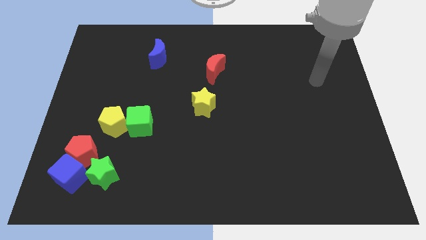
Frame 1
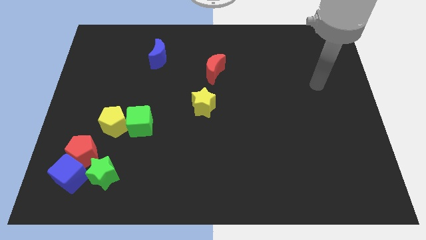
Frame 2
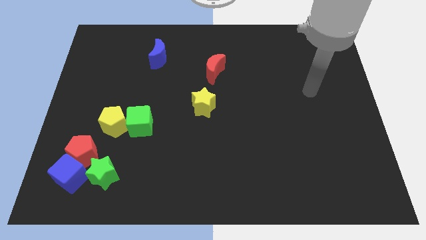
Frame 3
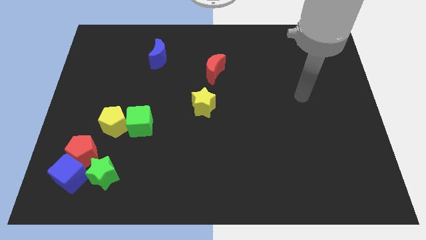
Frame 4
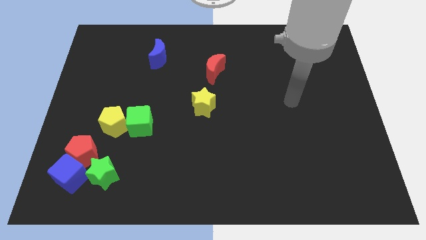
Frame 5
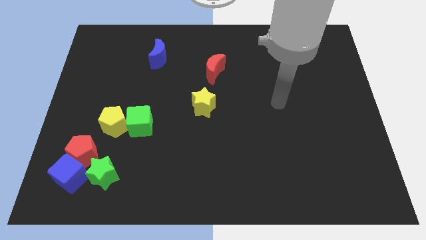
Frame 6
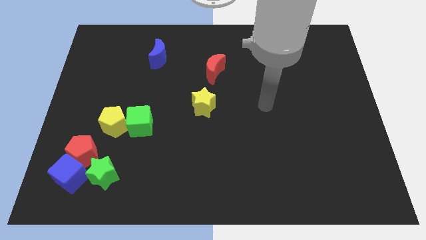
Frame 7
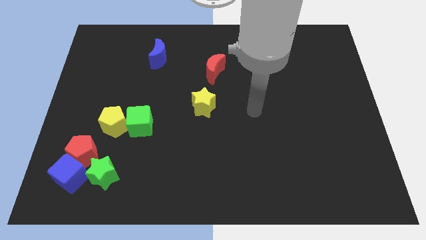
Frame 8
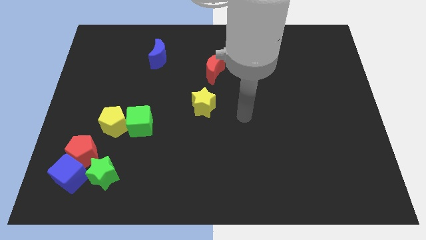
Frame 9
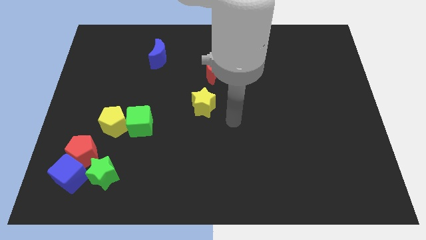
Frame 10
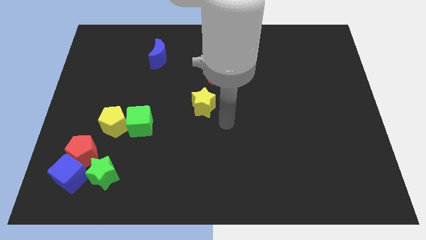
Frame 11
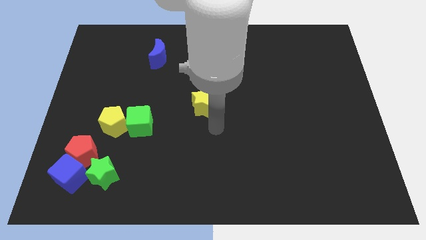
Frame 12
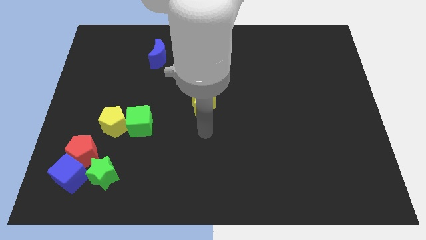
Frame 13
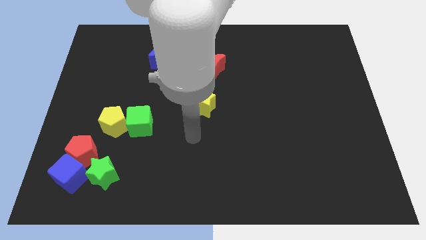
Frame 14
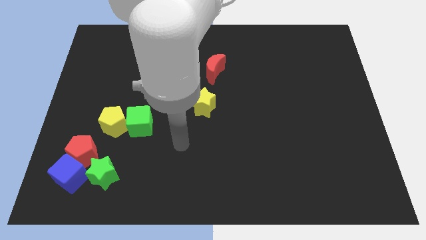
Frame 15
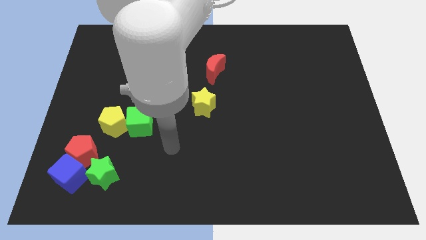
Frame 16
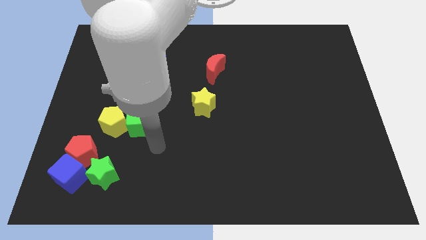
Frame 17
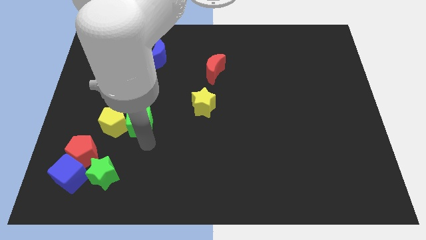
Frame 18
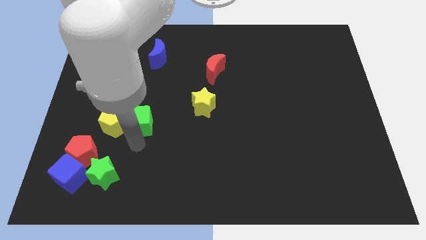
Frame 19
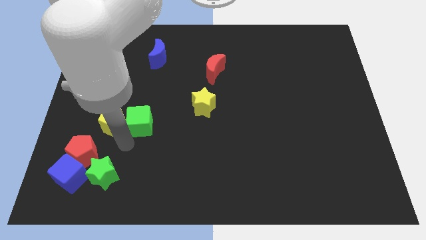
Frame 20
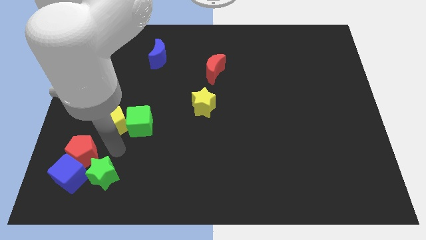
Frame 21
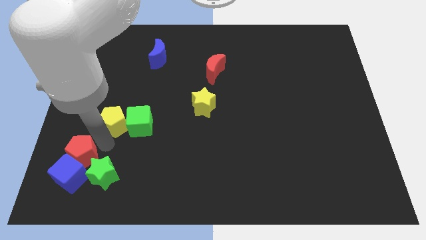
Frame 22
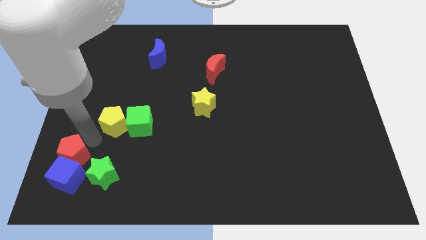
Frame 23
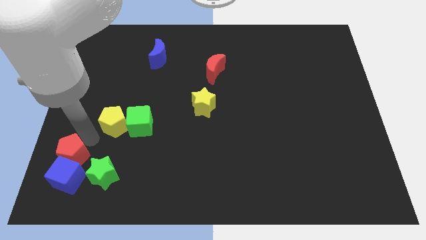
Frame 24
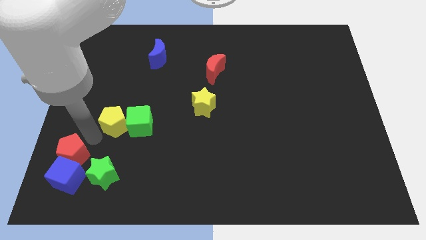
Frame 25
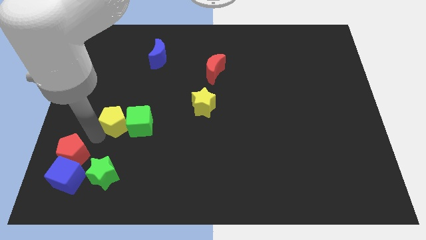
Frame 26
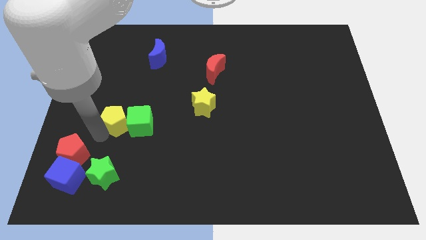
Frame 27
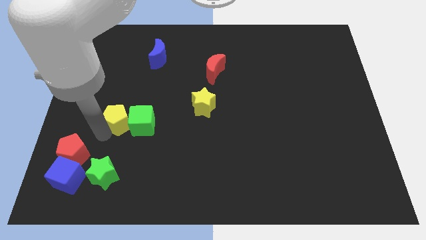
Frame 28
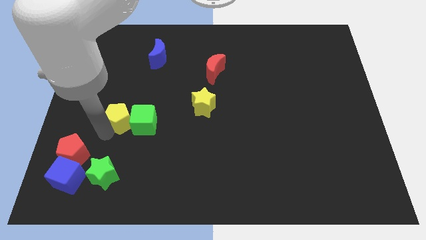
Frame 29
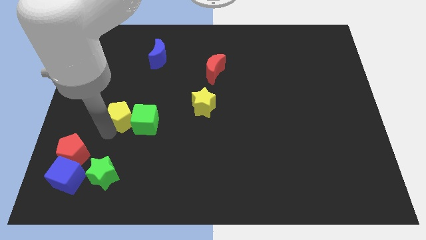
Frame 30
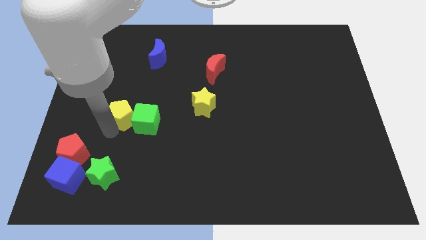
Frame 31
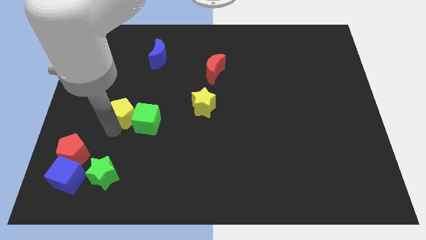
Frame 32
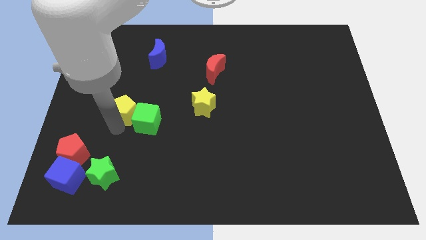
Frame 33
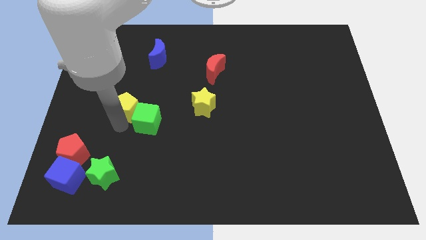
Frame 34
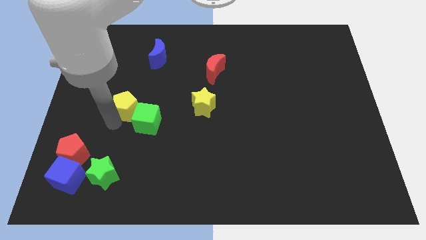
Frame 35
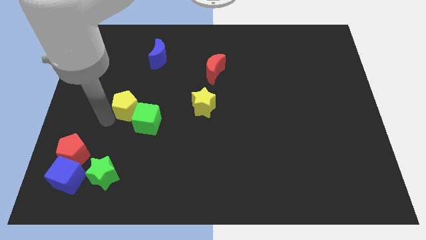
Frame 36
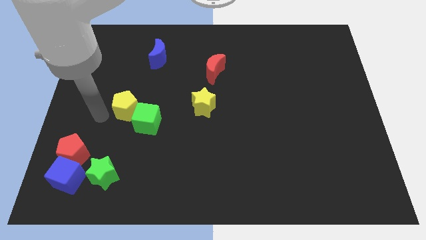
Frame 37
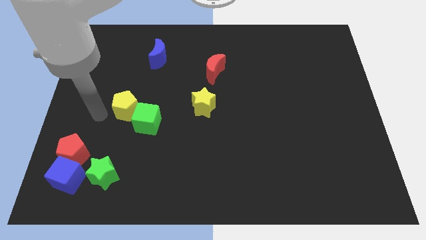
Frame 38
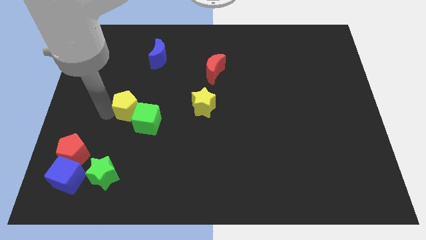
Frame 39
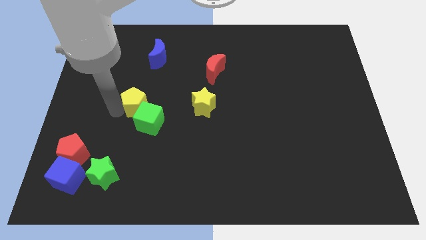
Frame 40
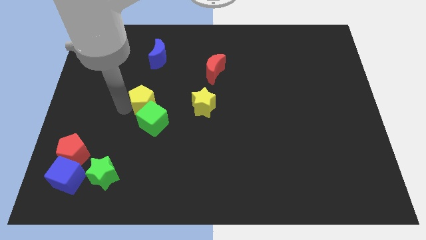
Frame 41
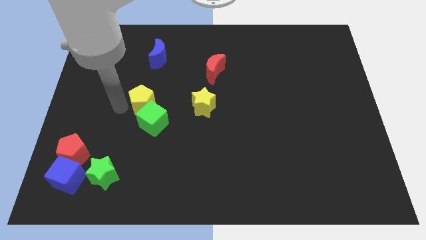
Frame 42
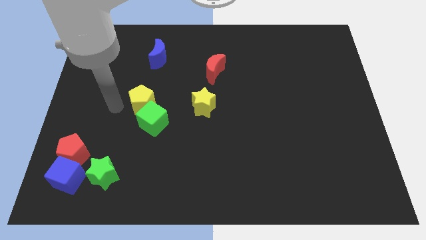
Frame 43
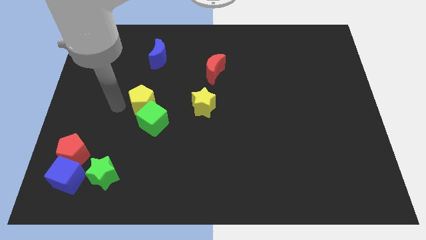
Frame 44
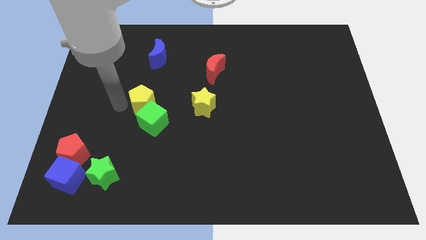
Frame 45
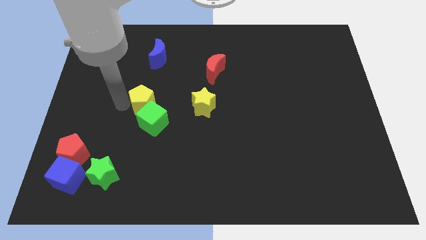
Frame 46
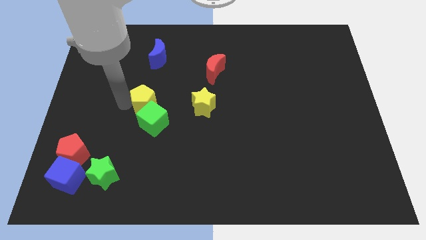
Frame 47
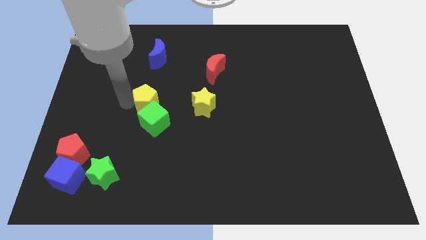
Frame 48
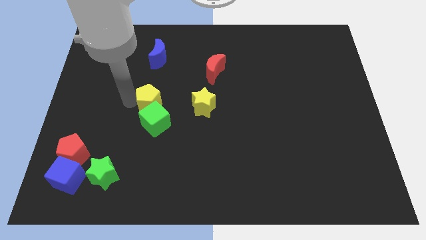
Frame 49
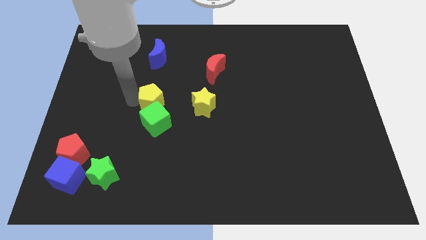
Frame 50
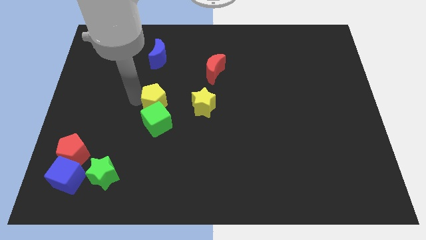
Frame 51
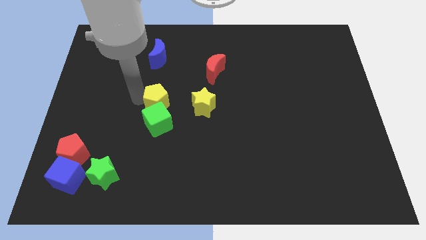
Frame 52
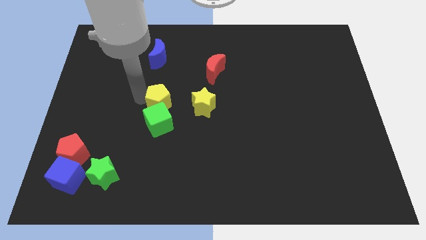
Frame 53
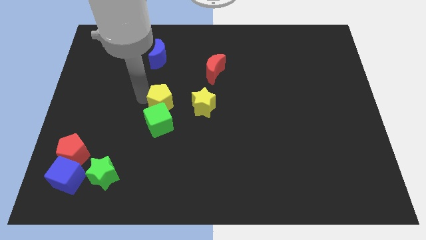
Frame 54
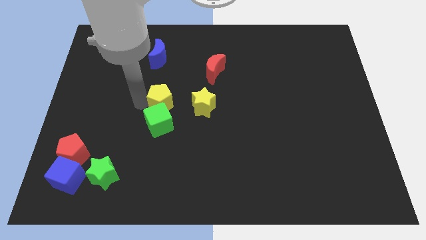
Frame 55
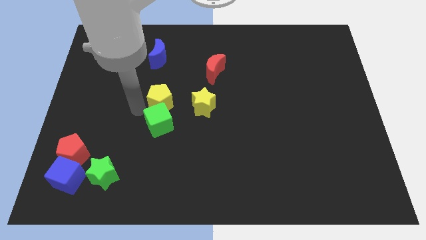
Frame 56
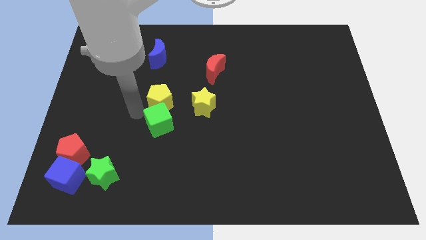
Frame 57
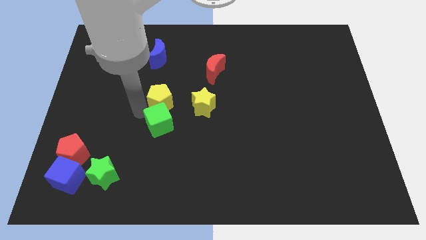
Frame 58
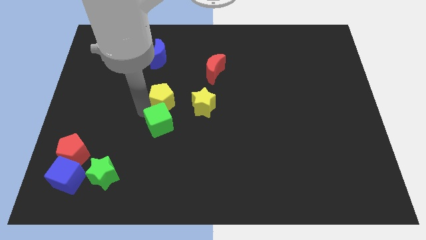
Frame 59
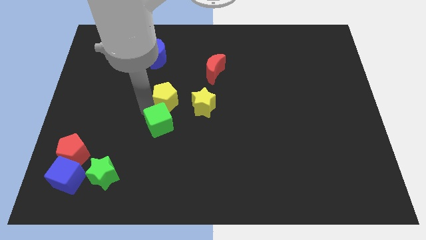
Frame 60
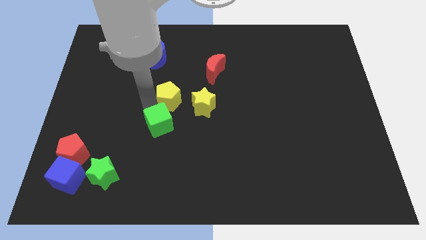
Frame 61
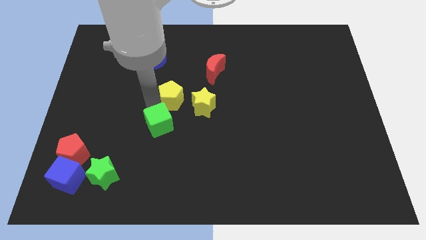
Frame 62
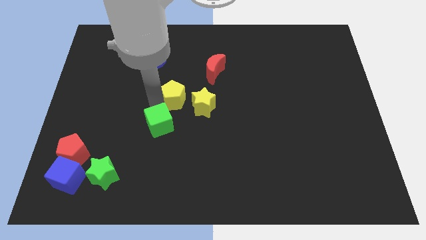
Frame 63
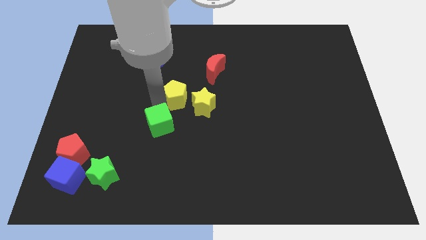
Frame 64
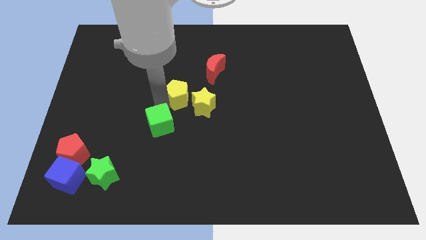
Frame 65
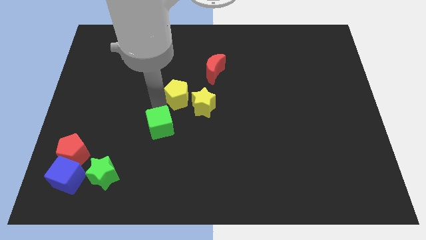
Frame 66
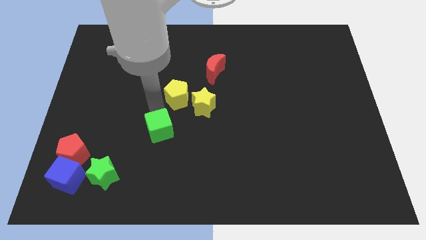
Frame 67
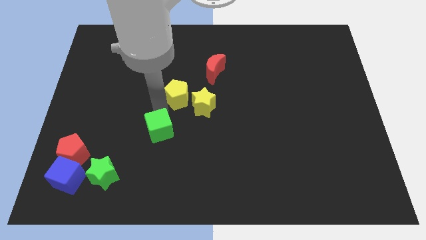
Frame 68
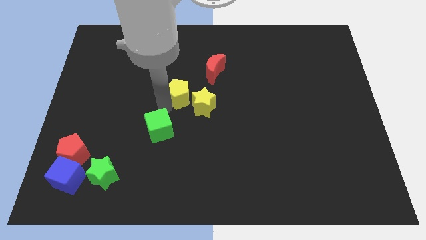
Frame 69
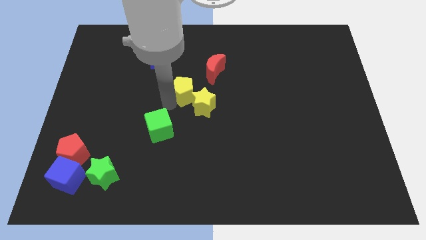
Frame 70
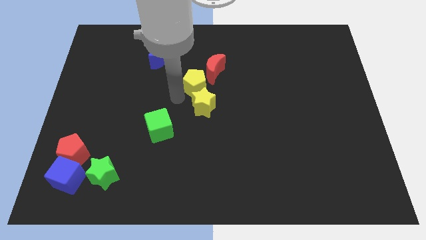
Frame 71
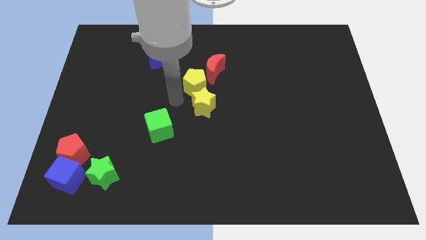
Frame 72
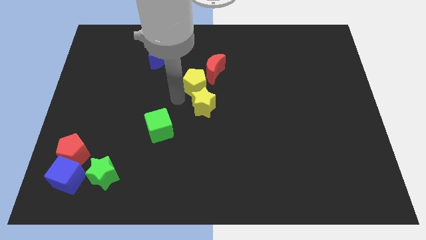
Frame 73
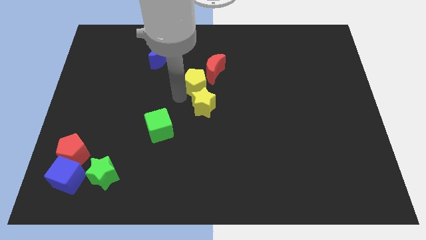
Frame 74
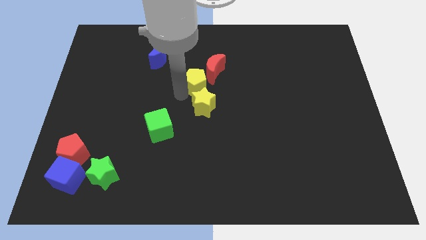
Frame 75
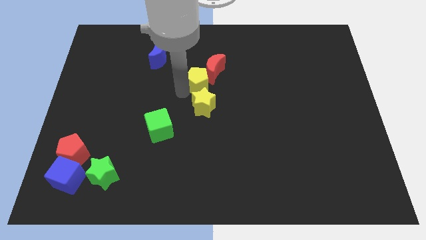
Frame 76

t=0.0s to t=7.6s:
slide the yellow pentagon towards the red moon

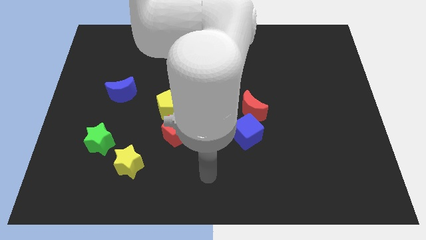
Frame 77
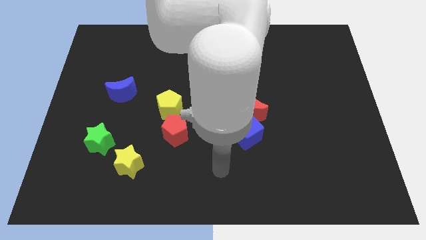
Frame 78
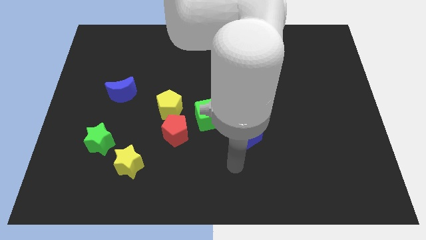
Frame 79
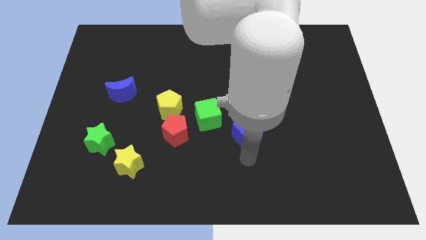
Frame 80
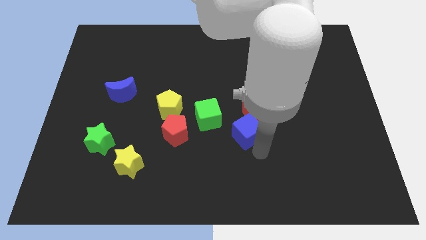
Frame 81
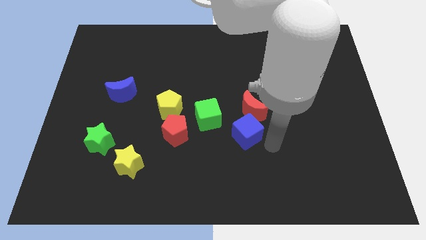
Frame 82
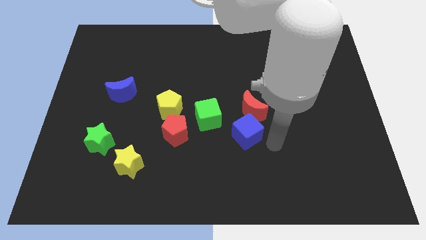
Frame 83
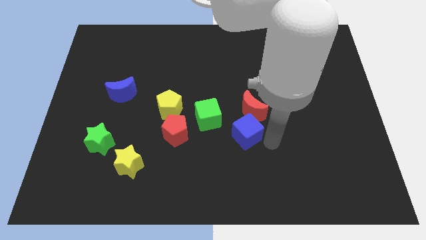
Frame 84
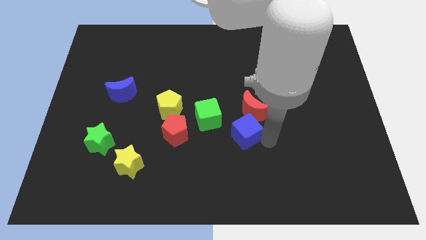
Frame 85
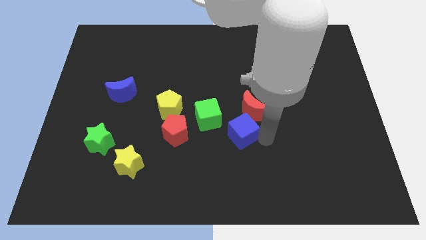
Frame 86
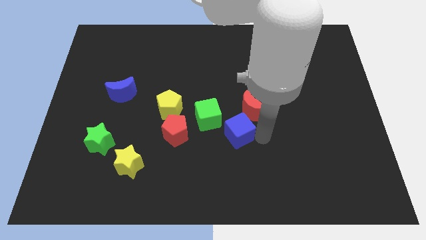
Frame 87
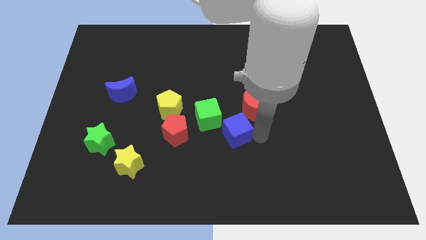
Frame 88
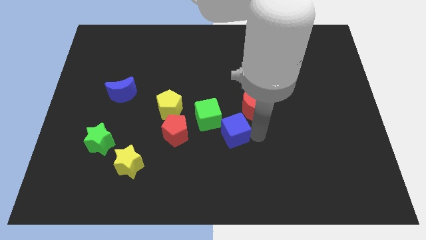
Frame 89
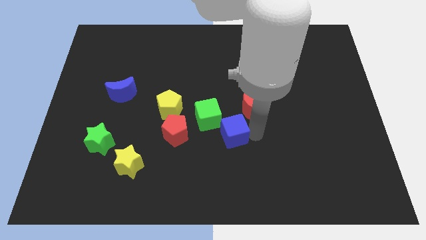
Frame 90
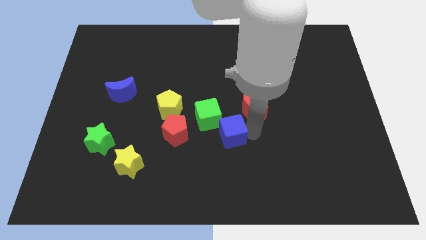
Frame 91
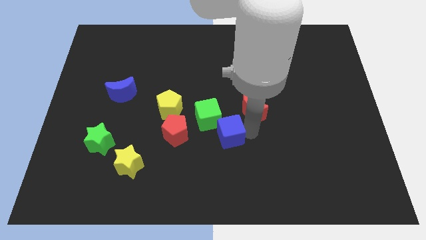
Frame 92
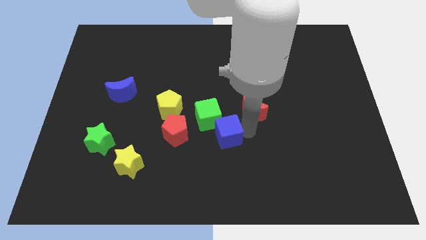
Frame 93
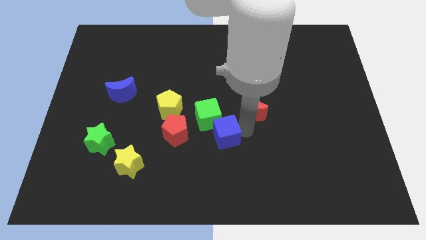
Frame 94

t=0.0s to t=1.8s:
slide the blue cube next to the green cube
